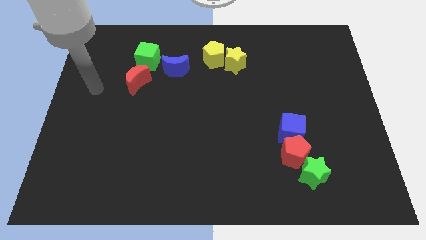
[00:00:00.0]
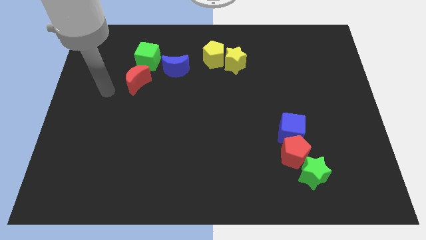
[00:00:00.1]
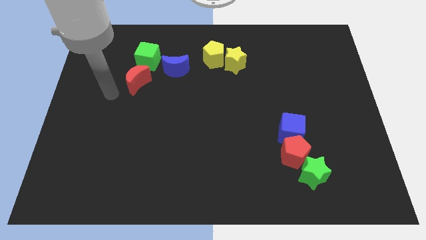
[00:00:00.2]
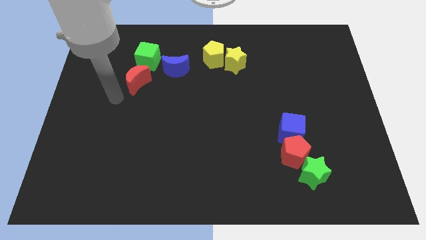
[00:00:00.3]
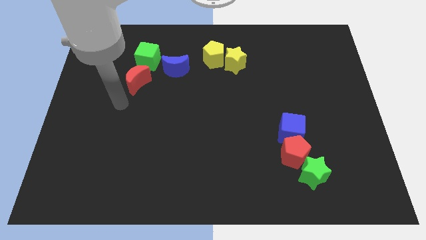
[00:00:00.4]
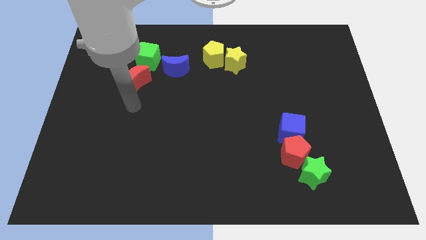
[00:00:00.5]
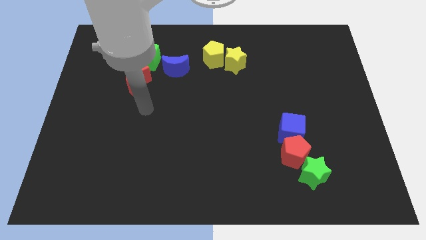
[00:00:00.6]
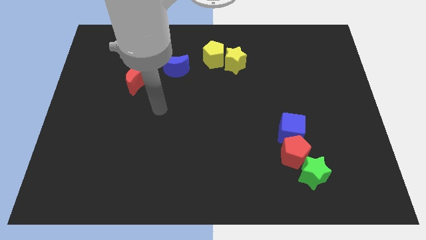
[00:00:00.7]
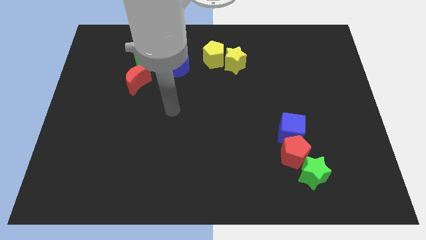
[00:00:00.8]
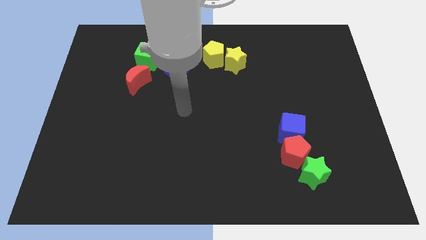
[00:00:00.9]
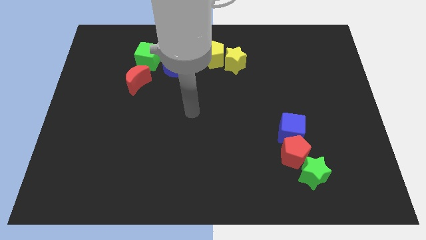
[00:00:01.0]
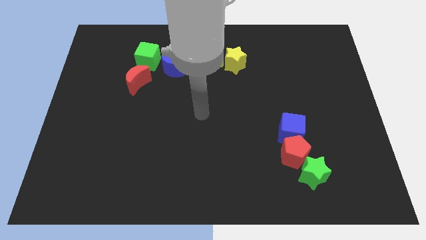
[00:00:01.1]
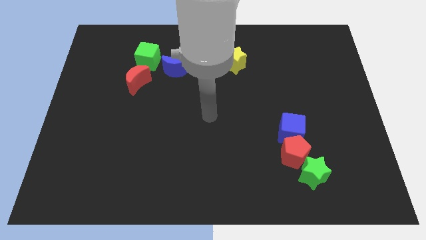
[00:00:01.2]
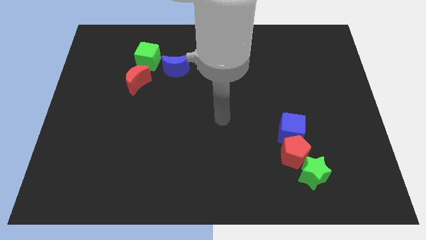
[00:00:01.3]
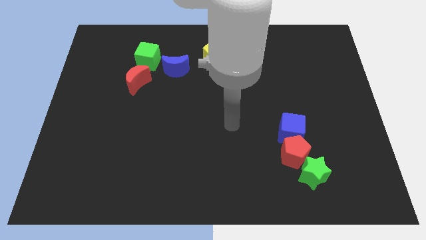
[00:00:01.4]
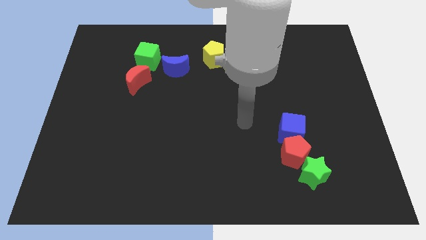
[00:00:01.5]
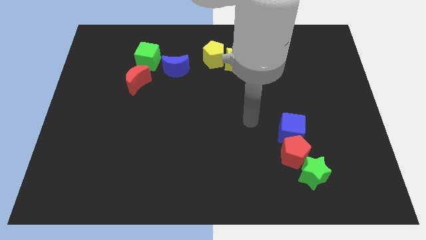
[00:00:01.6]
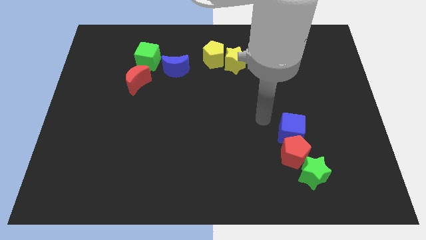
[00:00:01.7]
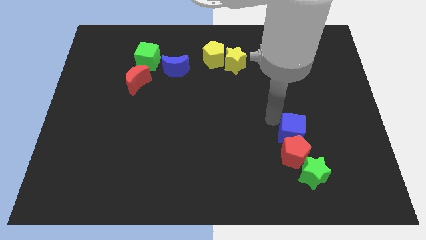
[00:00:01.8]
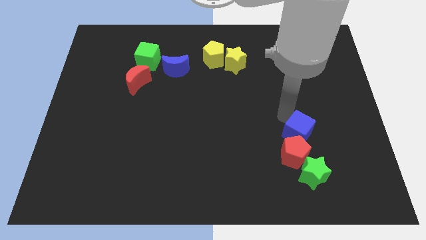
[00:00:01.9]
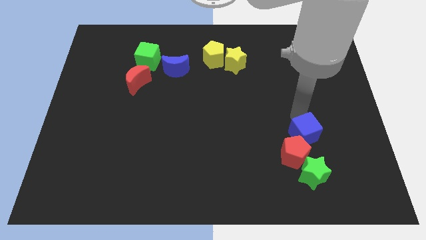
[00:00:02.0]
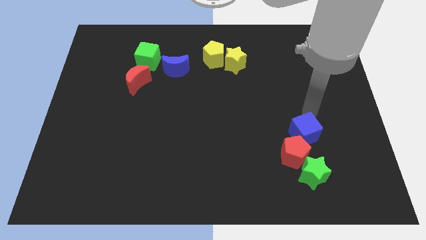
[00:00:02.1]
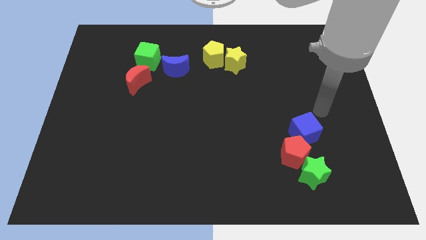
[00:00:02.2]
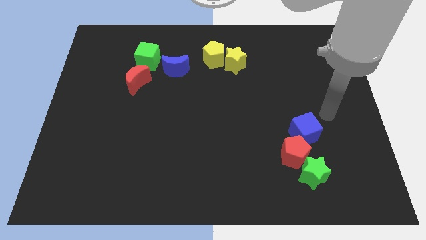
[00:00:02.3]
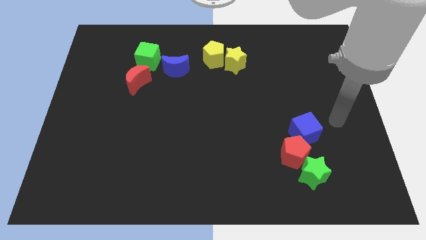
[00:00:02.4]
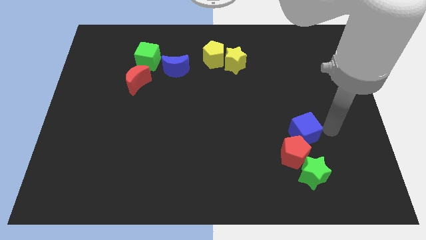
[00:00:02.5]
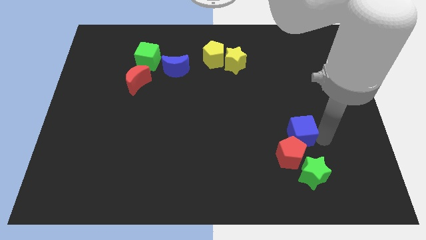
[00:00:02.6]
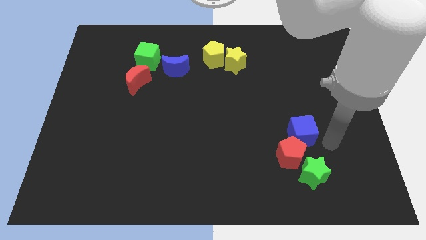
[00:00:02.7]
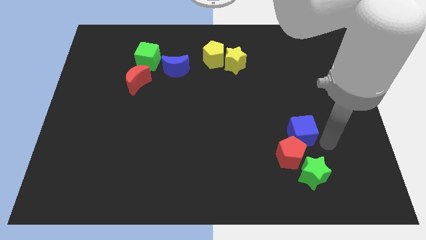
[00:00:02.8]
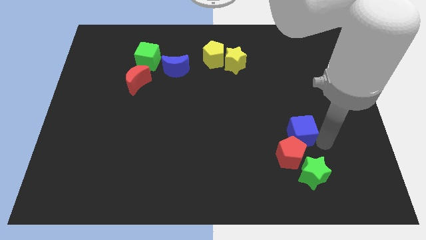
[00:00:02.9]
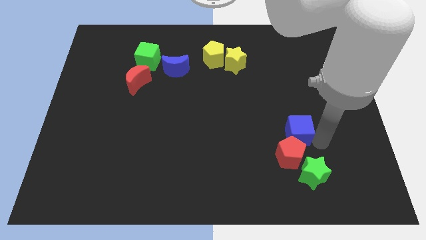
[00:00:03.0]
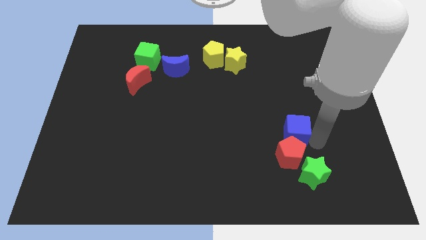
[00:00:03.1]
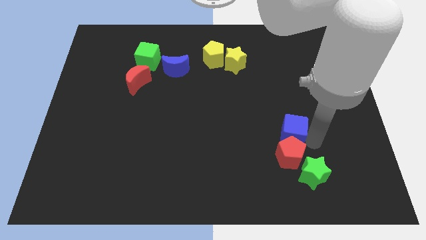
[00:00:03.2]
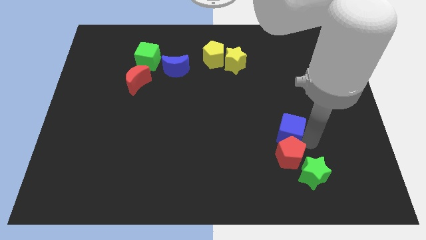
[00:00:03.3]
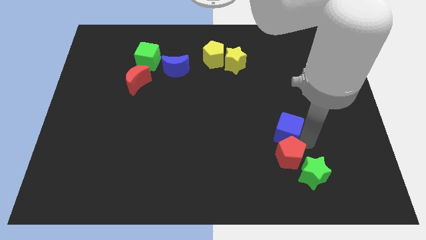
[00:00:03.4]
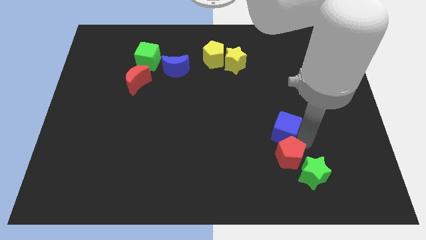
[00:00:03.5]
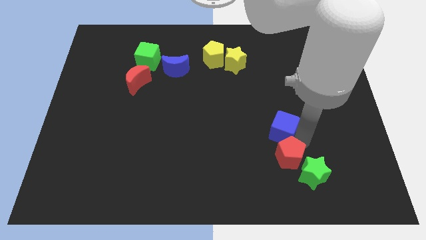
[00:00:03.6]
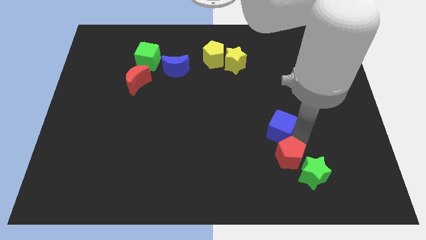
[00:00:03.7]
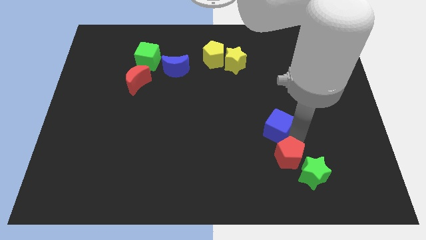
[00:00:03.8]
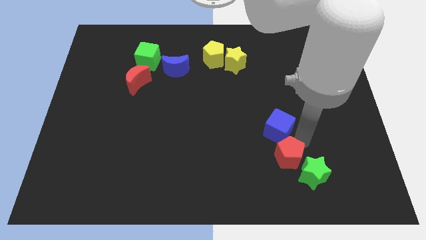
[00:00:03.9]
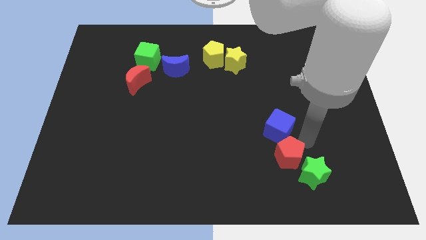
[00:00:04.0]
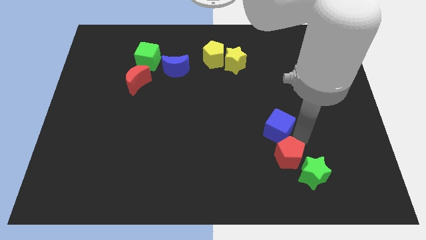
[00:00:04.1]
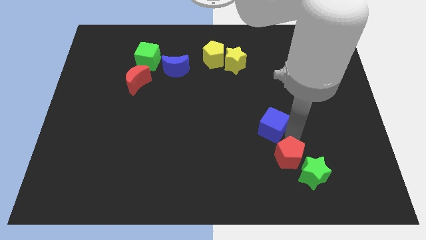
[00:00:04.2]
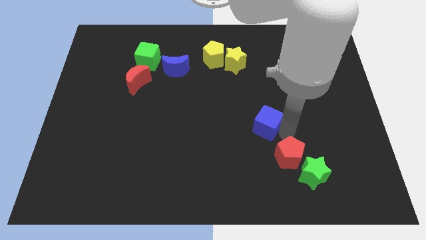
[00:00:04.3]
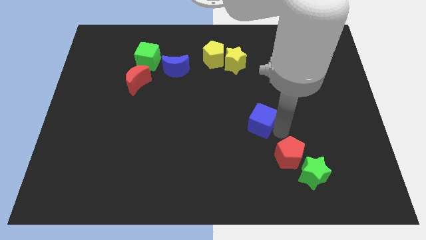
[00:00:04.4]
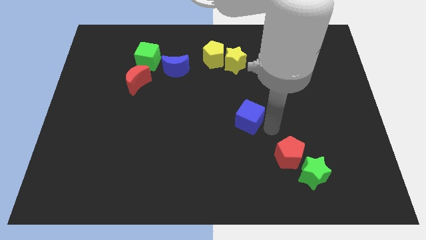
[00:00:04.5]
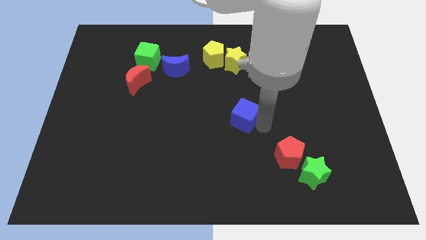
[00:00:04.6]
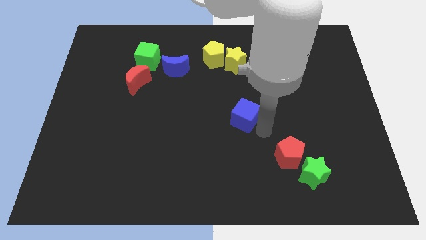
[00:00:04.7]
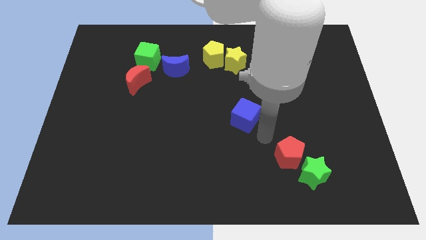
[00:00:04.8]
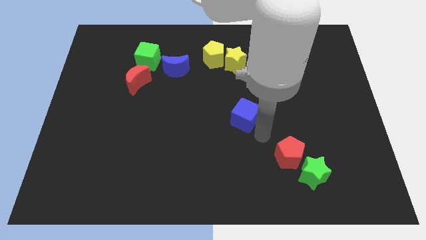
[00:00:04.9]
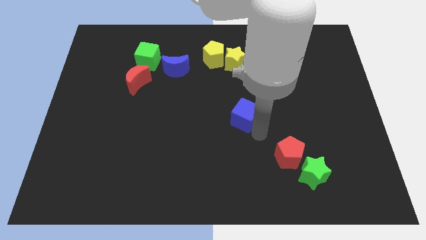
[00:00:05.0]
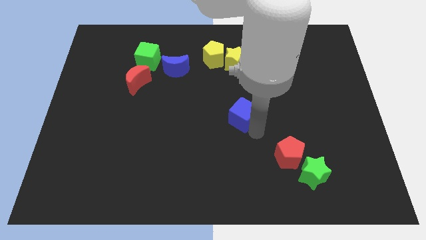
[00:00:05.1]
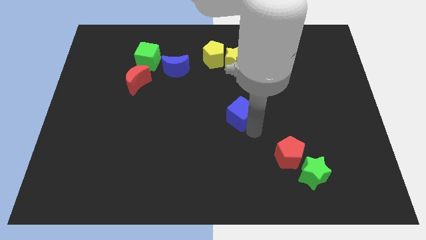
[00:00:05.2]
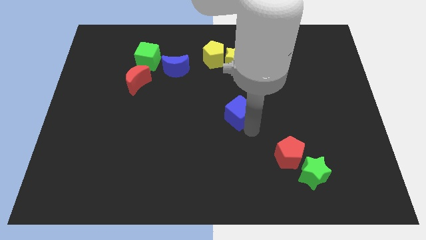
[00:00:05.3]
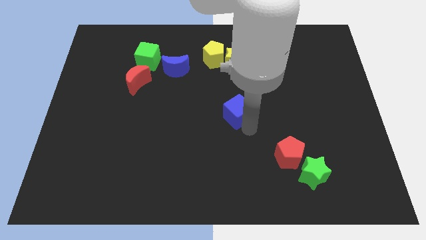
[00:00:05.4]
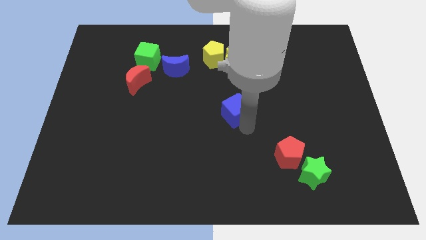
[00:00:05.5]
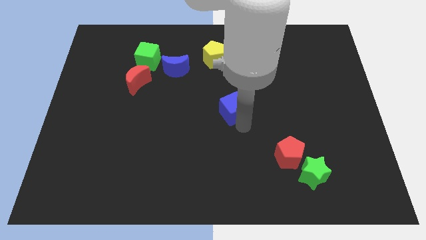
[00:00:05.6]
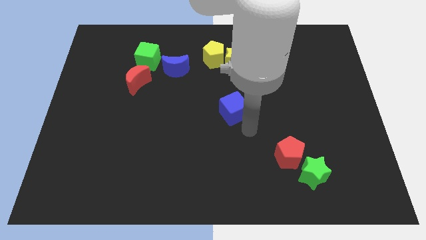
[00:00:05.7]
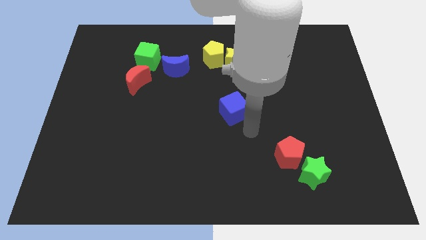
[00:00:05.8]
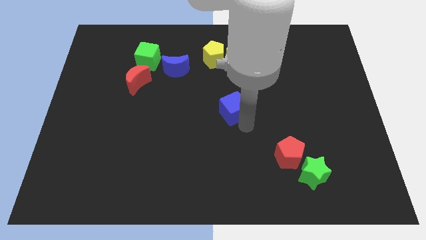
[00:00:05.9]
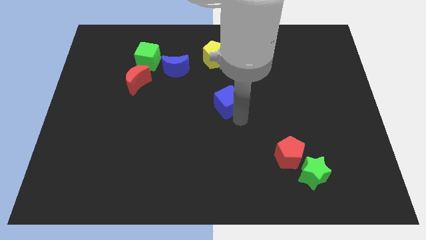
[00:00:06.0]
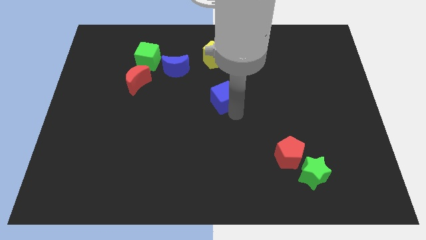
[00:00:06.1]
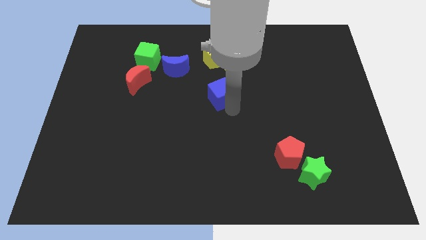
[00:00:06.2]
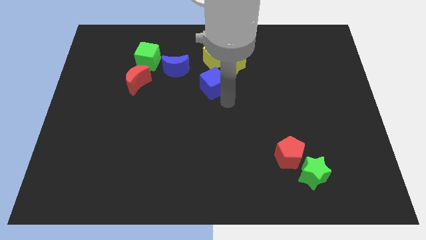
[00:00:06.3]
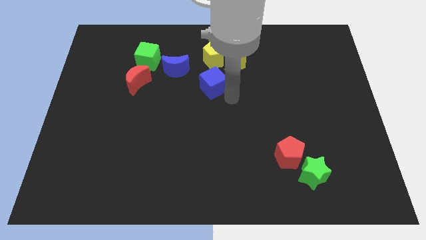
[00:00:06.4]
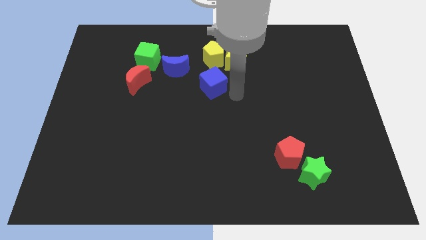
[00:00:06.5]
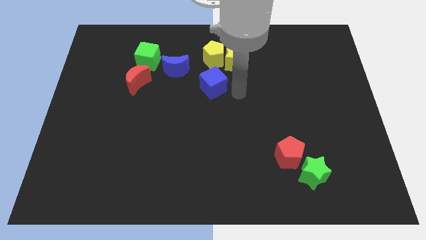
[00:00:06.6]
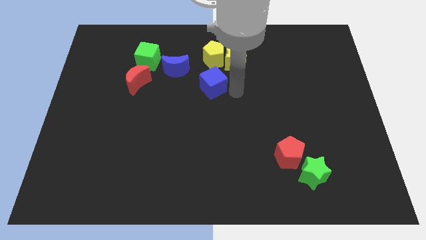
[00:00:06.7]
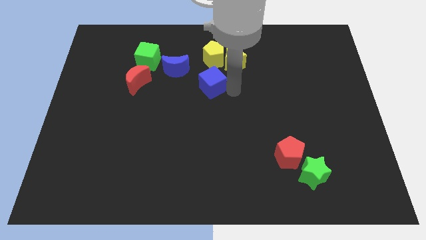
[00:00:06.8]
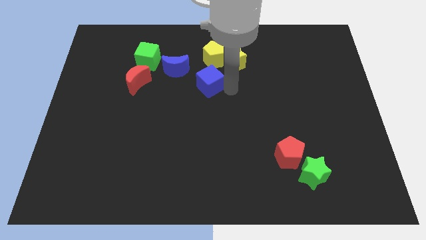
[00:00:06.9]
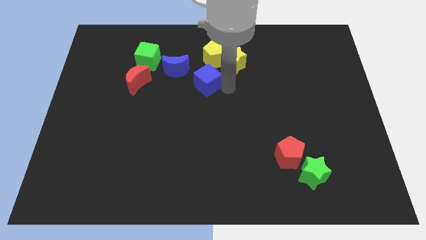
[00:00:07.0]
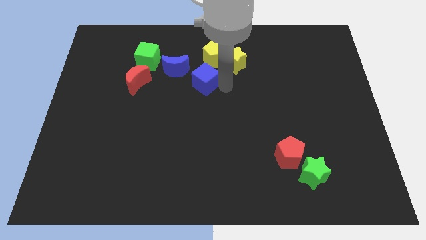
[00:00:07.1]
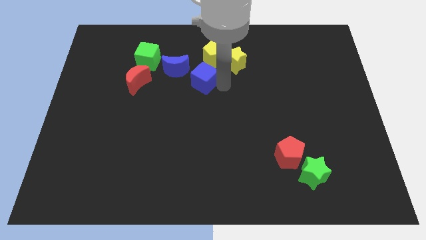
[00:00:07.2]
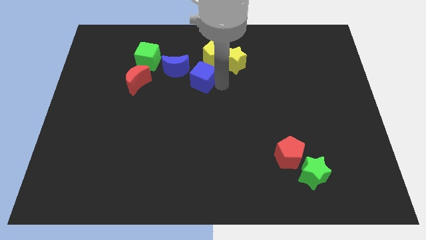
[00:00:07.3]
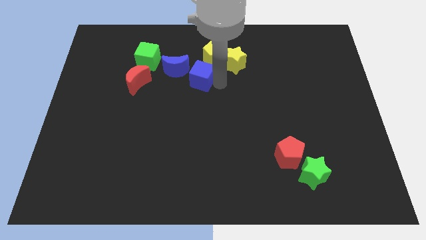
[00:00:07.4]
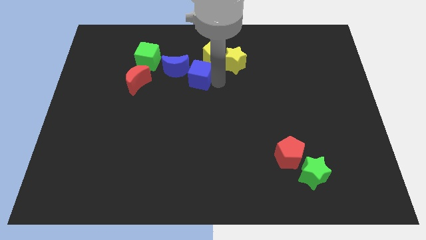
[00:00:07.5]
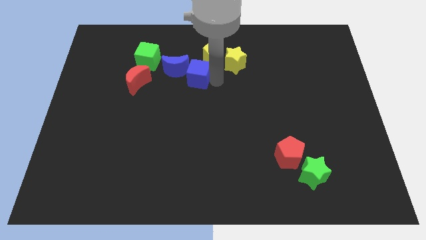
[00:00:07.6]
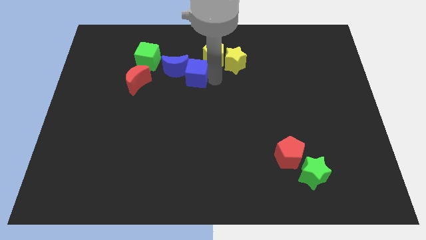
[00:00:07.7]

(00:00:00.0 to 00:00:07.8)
put the blue cube close to the blue moon
